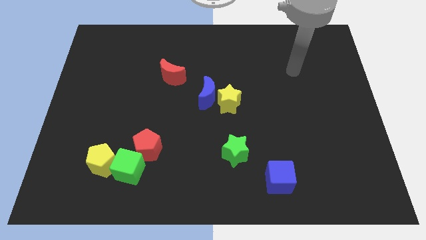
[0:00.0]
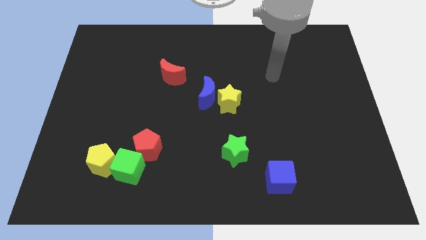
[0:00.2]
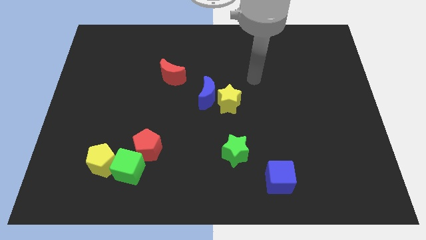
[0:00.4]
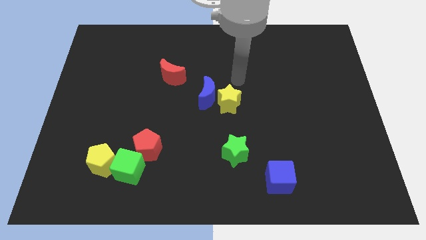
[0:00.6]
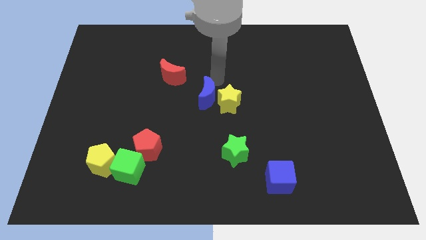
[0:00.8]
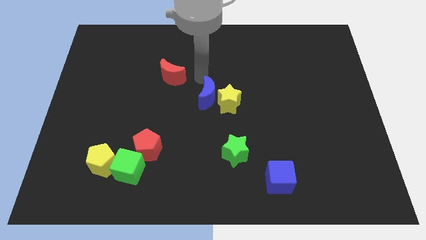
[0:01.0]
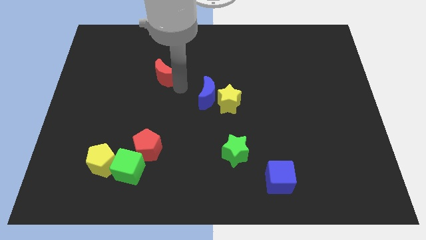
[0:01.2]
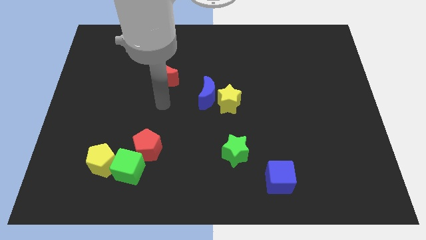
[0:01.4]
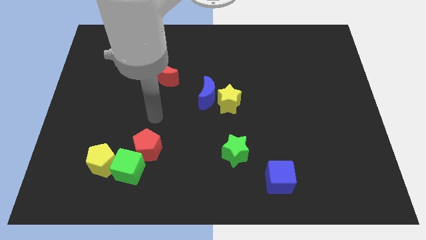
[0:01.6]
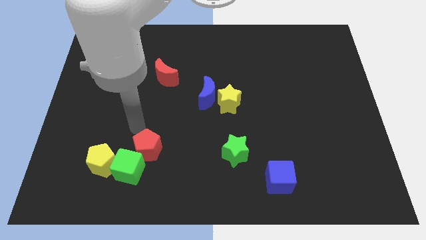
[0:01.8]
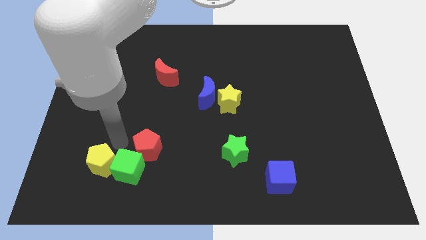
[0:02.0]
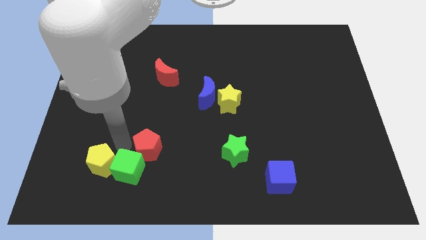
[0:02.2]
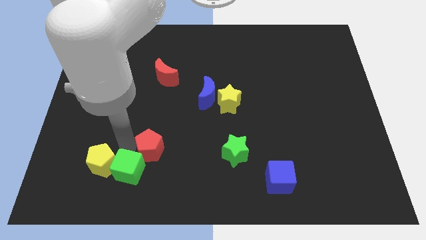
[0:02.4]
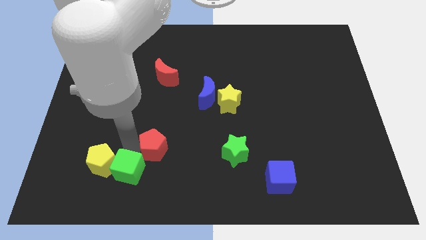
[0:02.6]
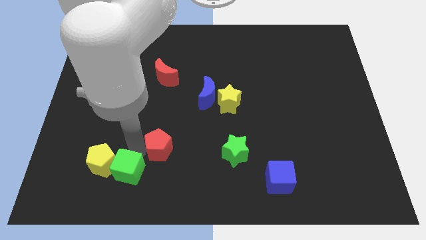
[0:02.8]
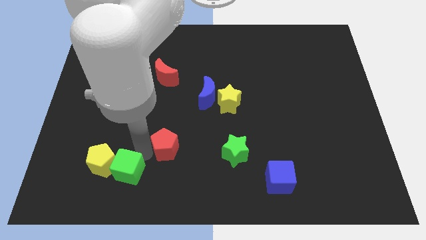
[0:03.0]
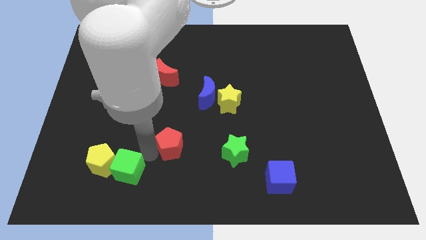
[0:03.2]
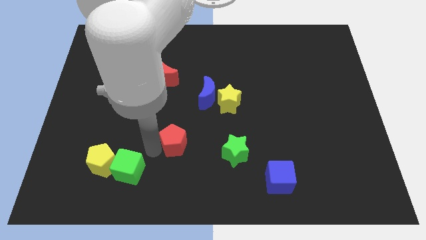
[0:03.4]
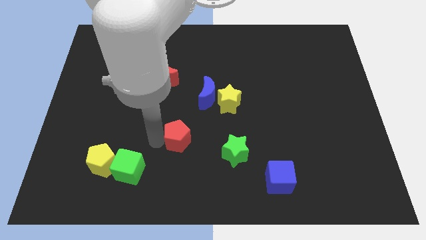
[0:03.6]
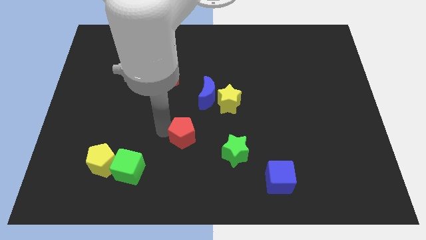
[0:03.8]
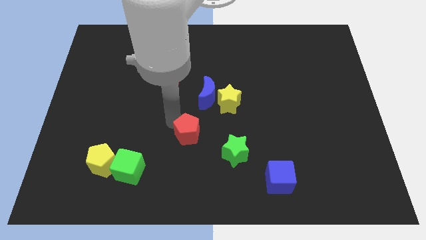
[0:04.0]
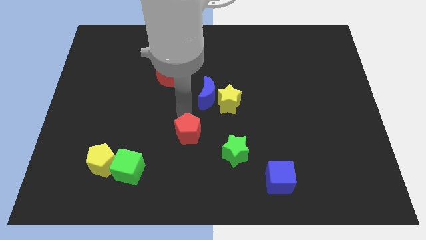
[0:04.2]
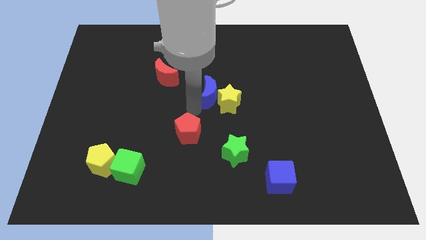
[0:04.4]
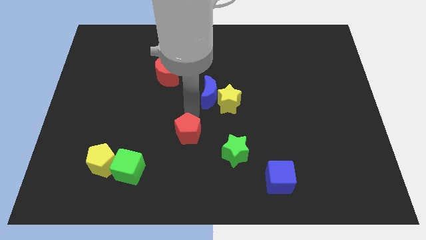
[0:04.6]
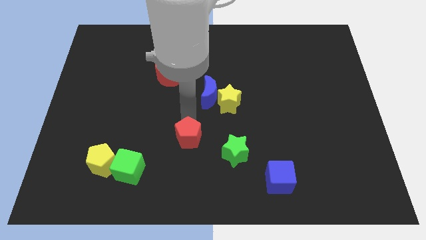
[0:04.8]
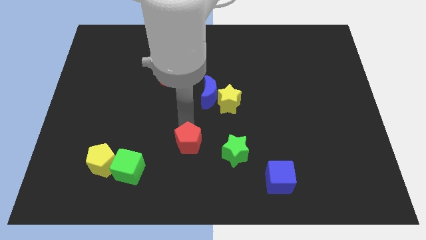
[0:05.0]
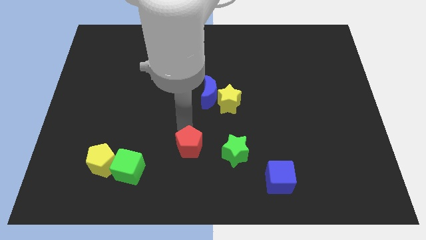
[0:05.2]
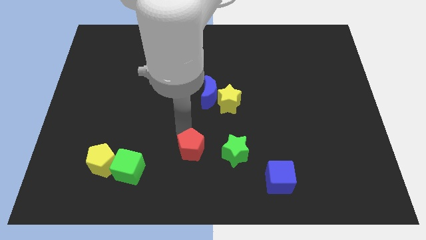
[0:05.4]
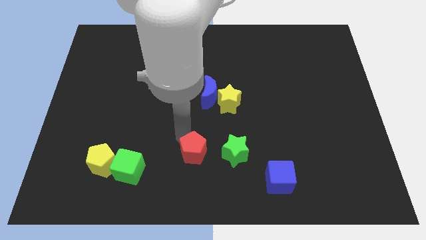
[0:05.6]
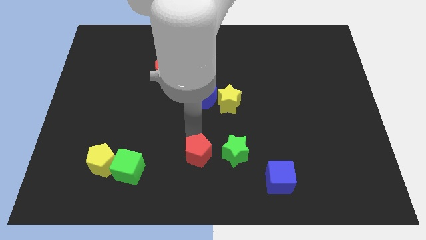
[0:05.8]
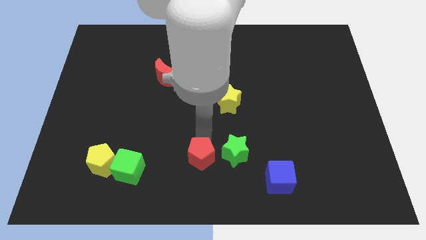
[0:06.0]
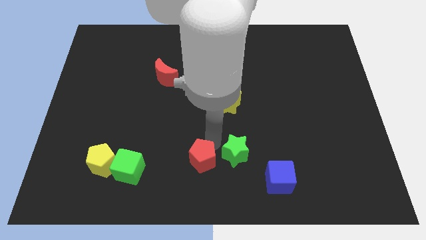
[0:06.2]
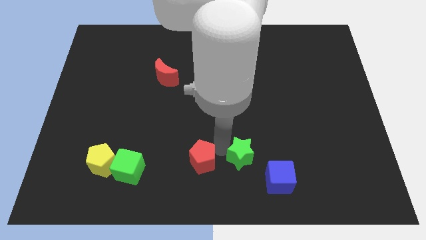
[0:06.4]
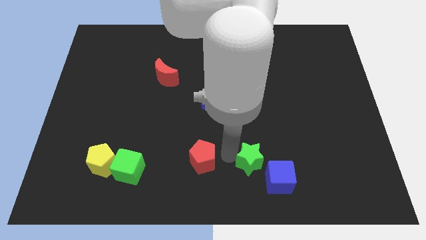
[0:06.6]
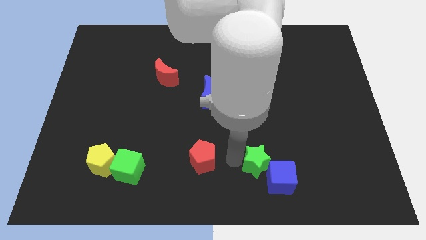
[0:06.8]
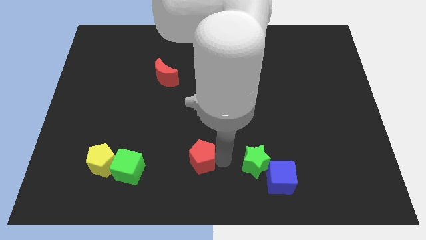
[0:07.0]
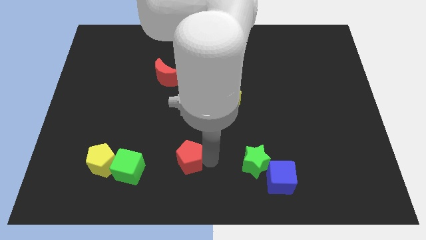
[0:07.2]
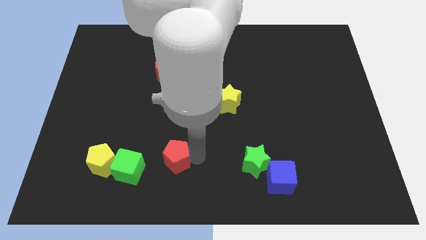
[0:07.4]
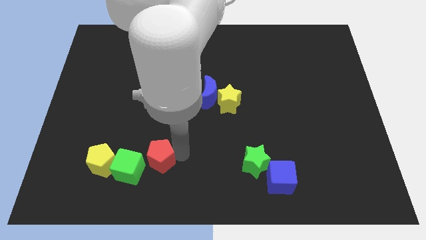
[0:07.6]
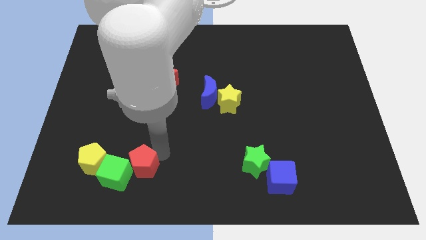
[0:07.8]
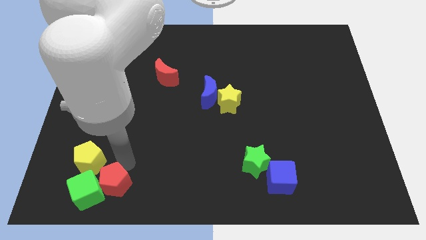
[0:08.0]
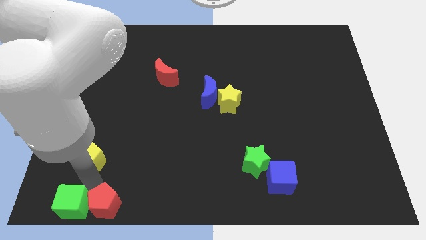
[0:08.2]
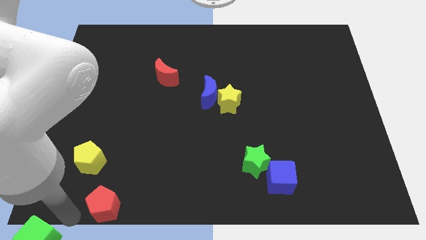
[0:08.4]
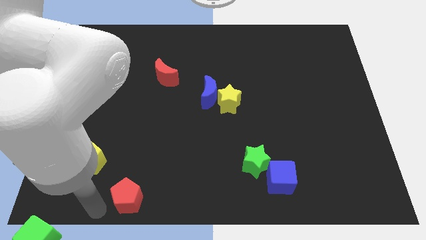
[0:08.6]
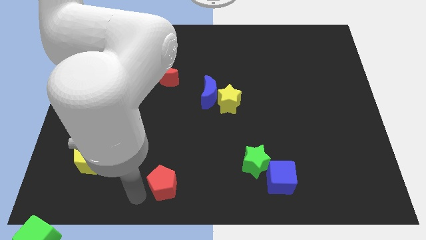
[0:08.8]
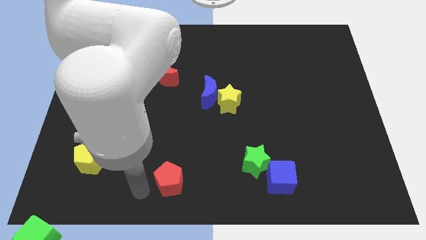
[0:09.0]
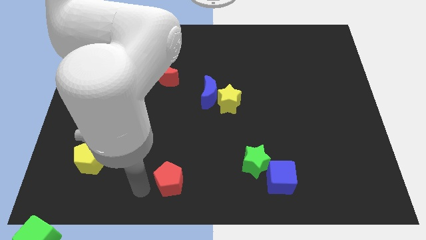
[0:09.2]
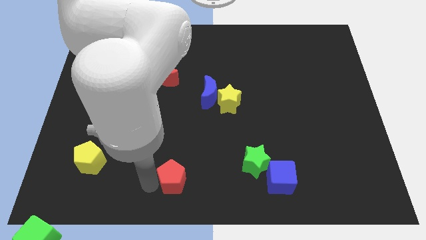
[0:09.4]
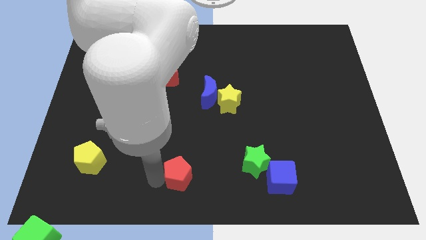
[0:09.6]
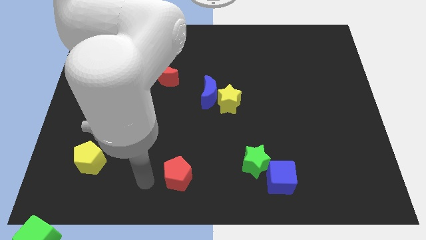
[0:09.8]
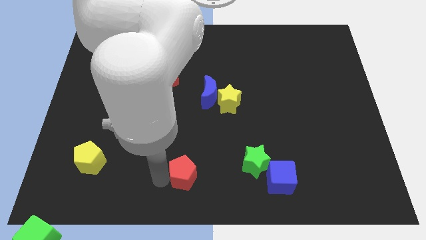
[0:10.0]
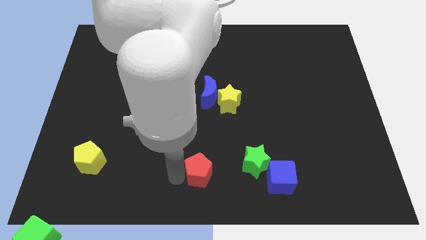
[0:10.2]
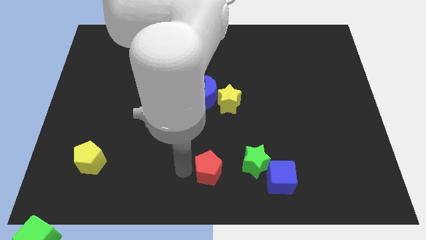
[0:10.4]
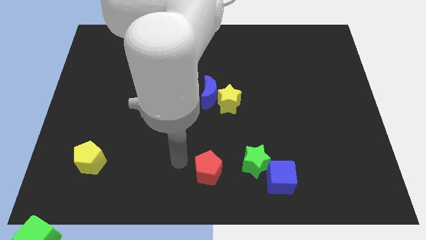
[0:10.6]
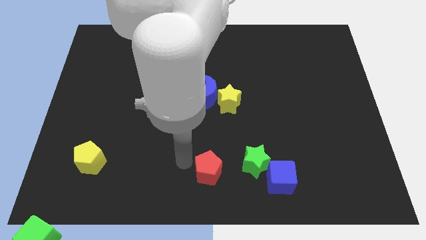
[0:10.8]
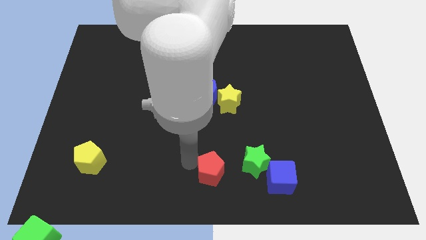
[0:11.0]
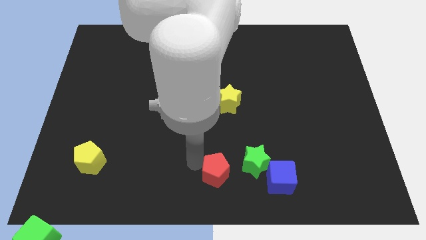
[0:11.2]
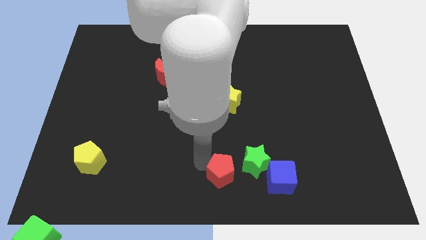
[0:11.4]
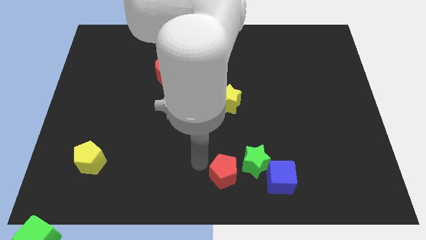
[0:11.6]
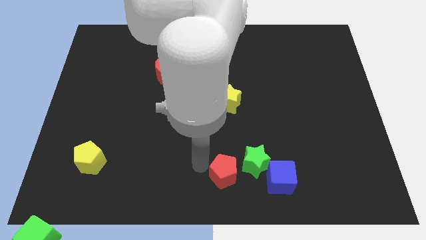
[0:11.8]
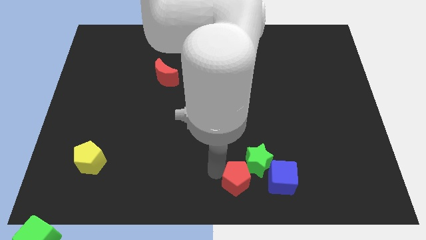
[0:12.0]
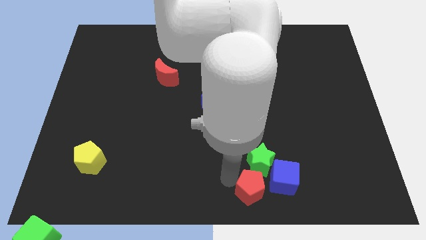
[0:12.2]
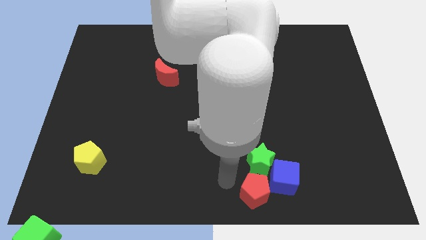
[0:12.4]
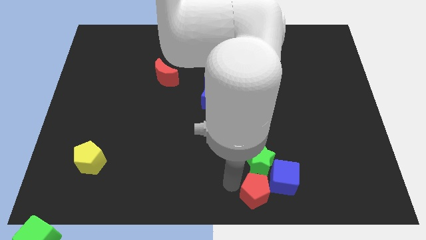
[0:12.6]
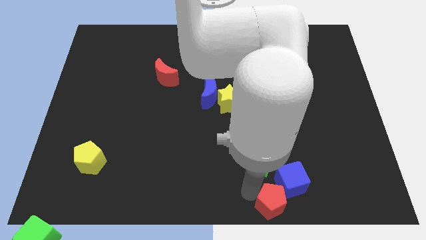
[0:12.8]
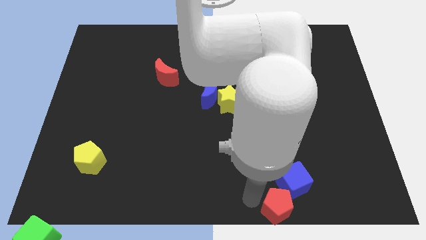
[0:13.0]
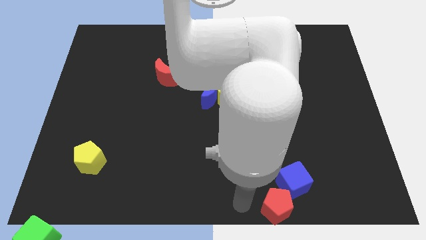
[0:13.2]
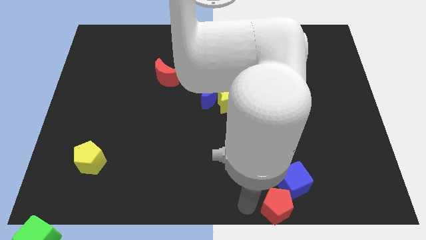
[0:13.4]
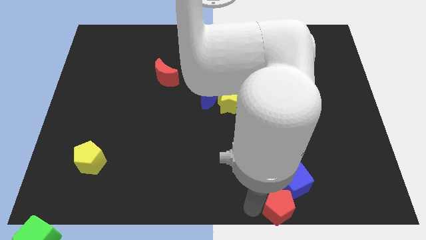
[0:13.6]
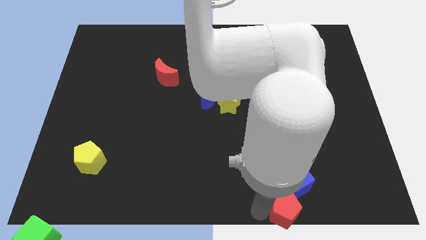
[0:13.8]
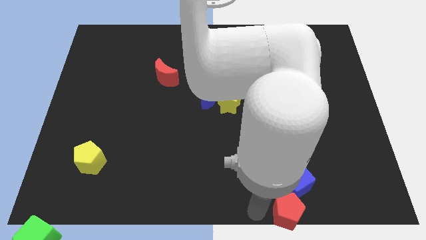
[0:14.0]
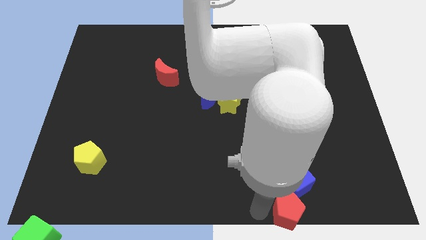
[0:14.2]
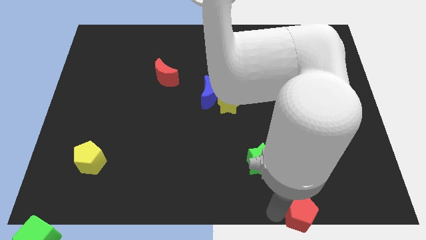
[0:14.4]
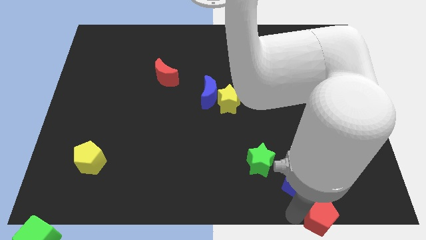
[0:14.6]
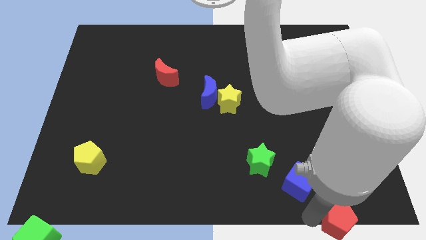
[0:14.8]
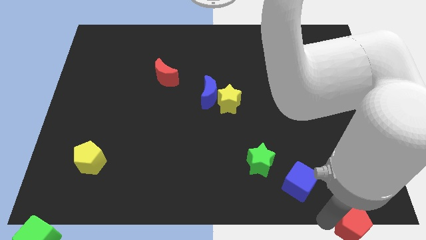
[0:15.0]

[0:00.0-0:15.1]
push the red pentagon to the bottom right
